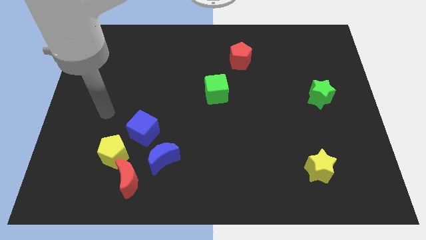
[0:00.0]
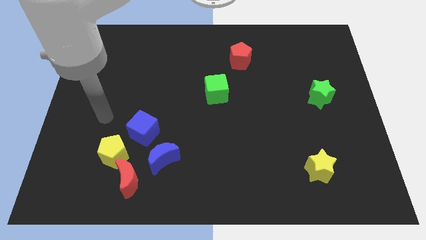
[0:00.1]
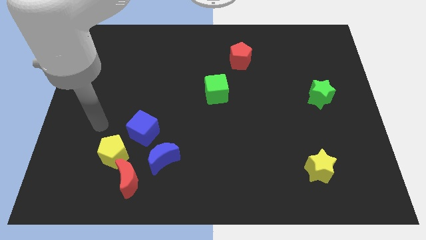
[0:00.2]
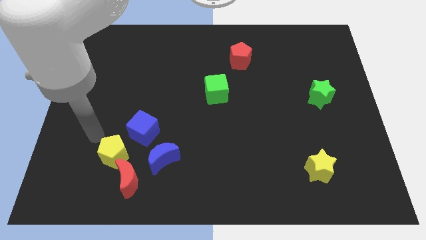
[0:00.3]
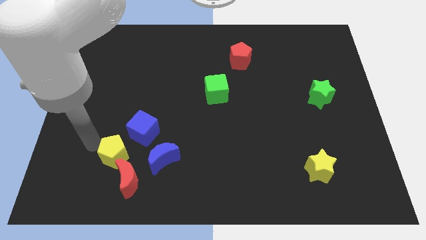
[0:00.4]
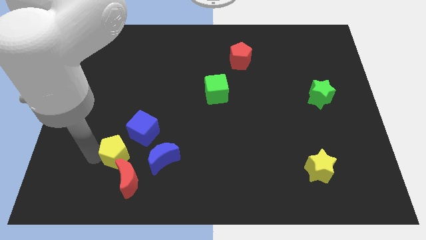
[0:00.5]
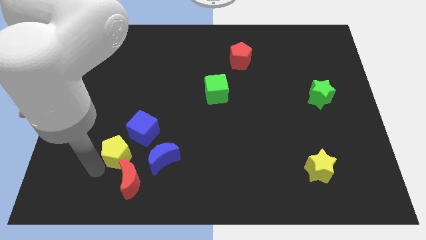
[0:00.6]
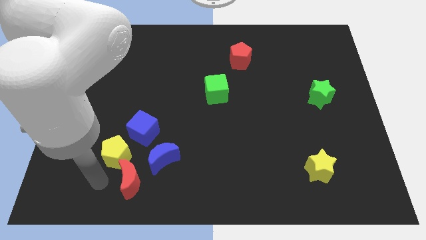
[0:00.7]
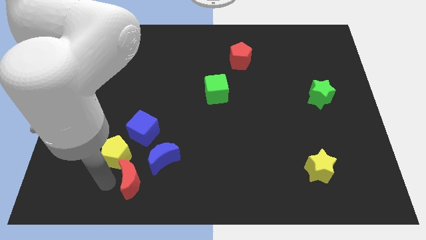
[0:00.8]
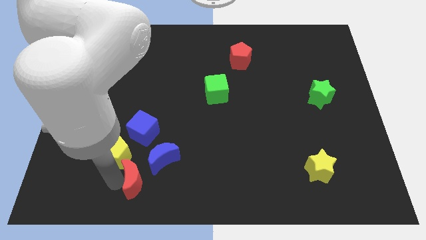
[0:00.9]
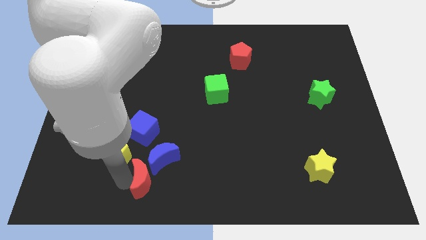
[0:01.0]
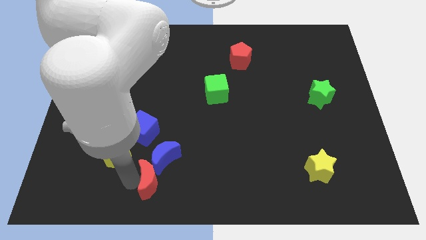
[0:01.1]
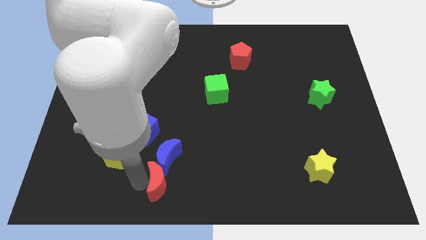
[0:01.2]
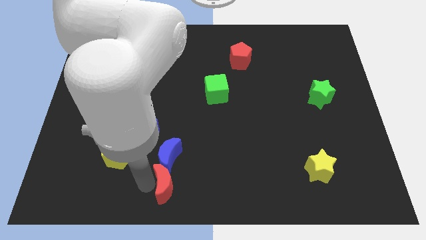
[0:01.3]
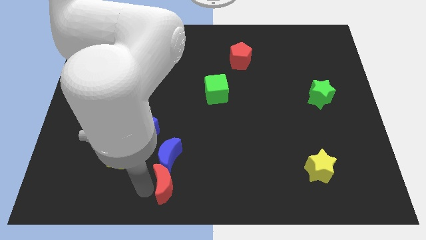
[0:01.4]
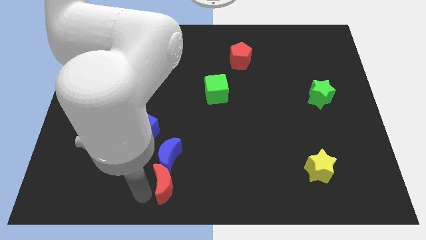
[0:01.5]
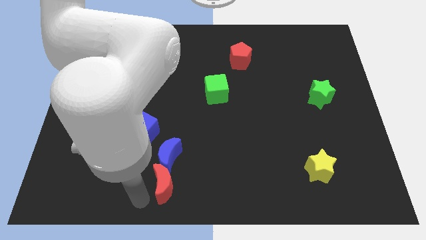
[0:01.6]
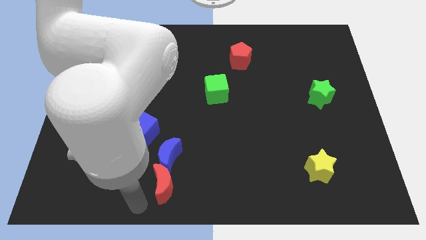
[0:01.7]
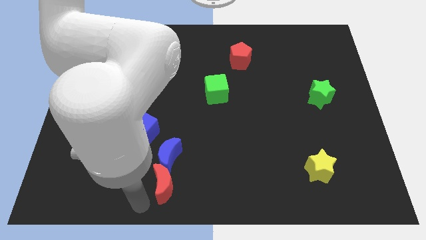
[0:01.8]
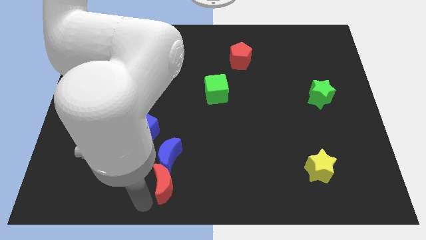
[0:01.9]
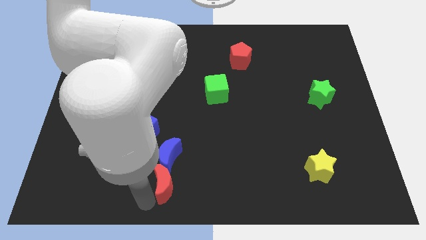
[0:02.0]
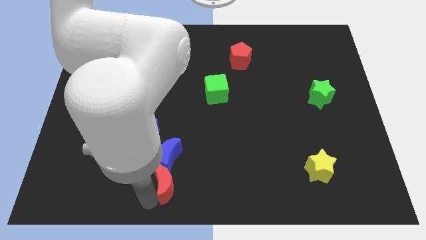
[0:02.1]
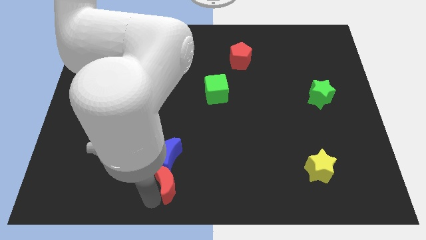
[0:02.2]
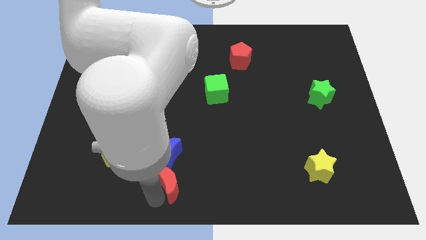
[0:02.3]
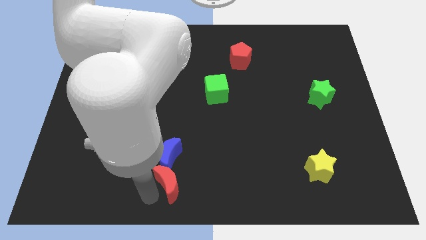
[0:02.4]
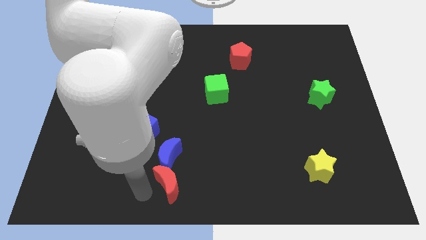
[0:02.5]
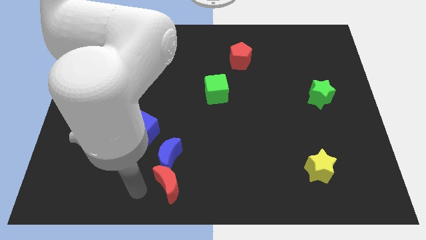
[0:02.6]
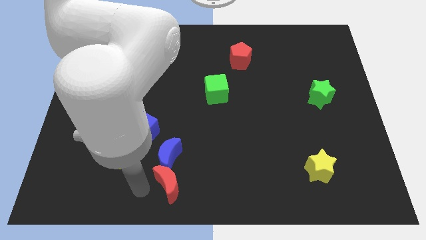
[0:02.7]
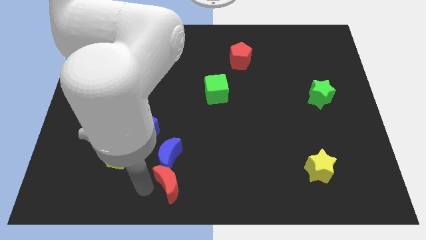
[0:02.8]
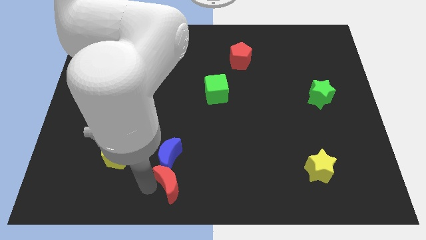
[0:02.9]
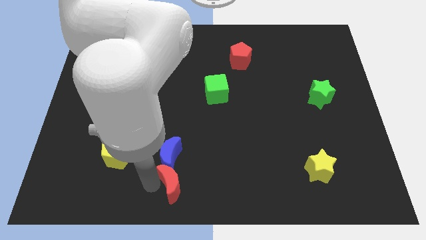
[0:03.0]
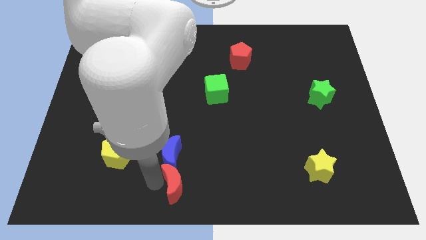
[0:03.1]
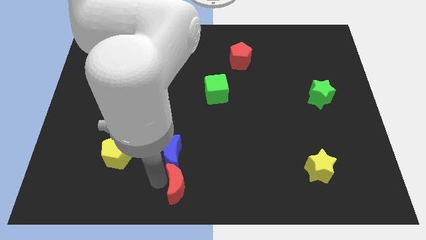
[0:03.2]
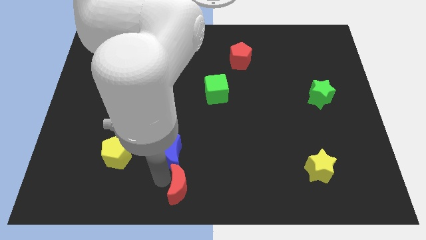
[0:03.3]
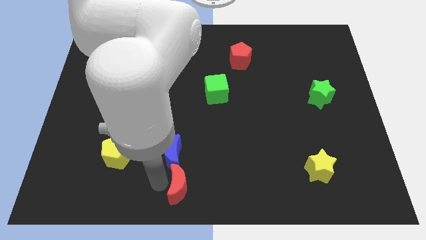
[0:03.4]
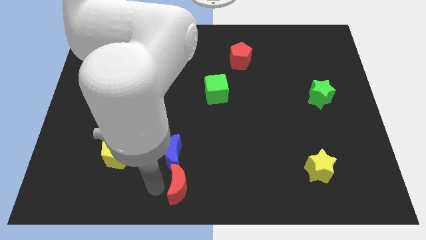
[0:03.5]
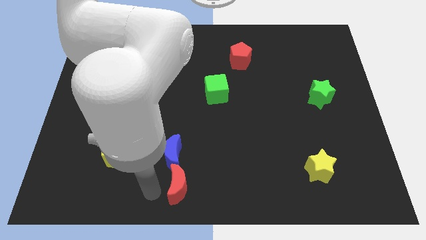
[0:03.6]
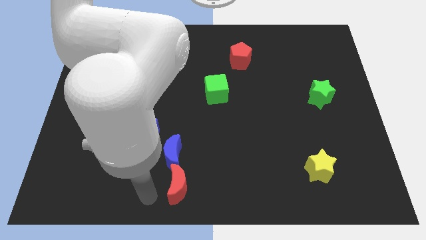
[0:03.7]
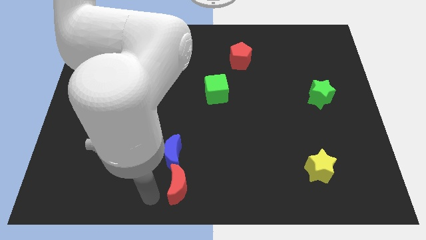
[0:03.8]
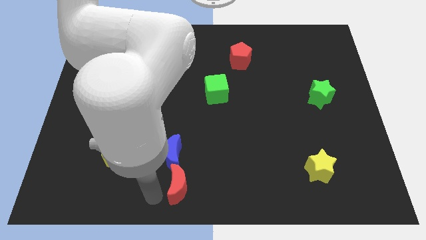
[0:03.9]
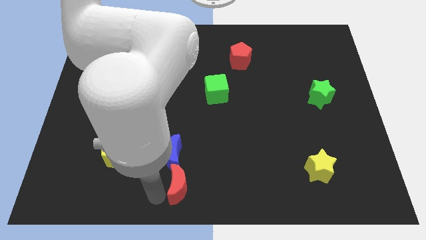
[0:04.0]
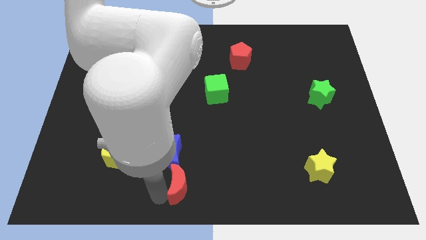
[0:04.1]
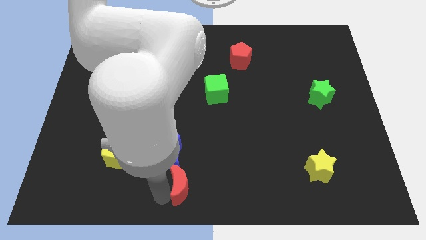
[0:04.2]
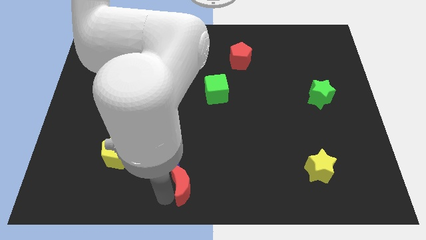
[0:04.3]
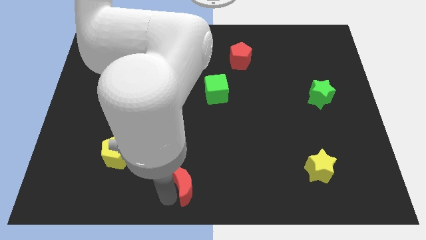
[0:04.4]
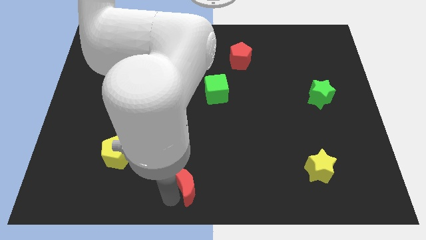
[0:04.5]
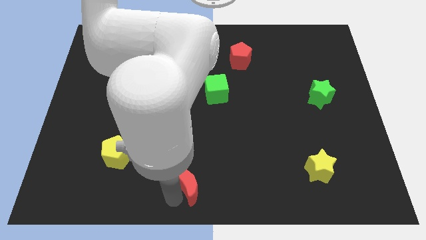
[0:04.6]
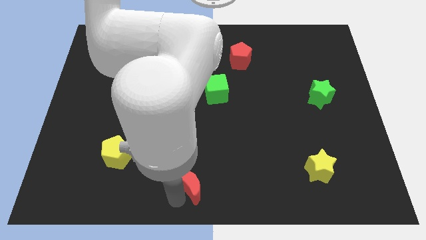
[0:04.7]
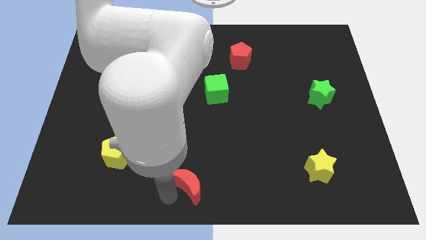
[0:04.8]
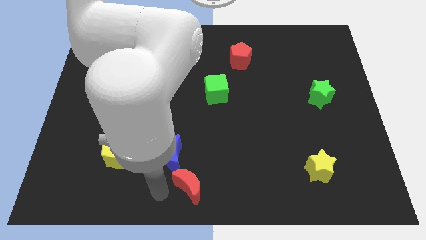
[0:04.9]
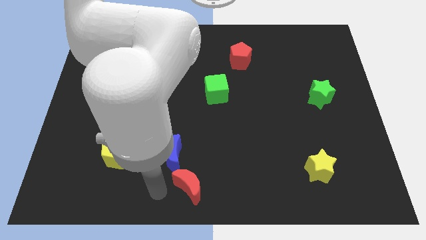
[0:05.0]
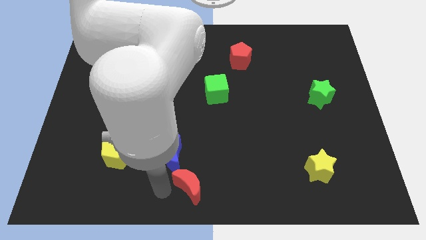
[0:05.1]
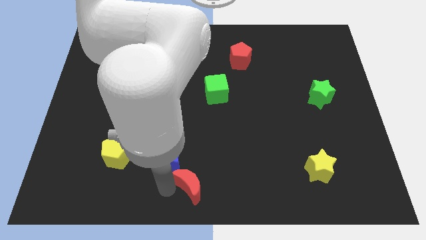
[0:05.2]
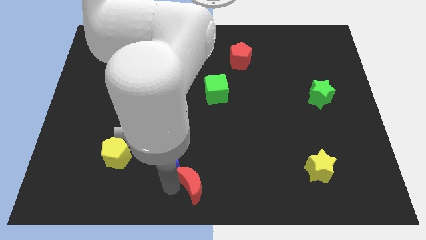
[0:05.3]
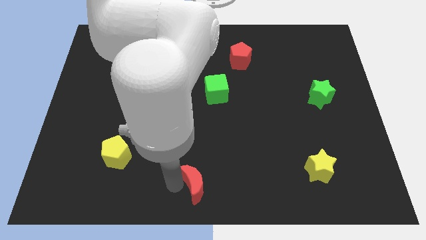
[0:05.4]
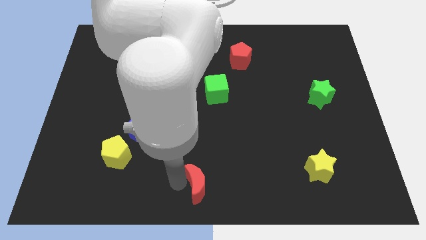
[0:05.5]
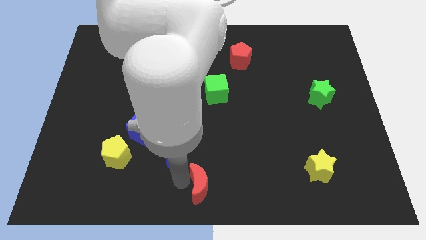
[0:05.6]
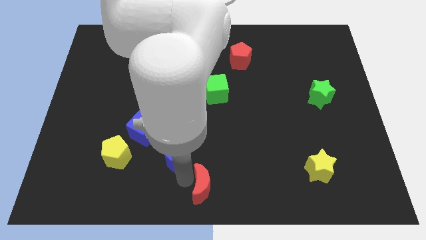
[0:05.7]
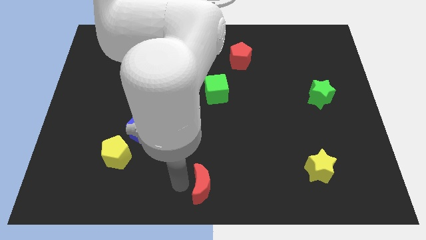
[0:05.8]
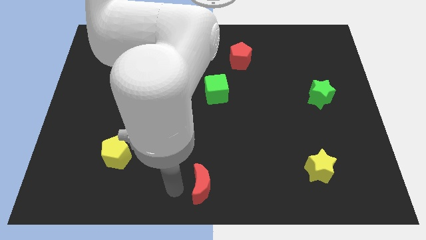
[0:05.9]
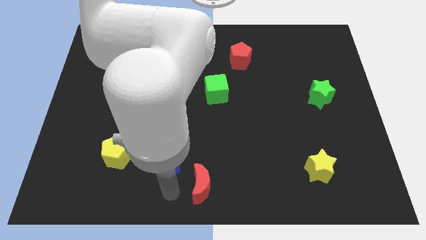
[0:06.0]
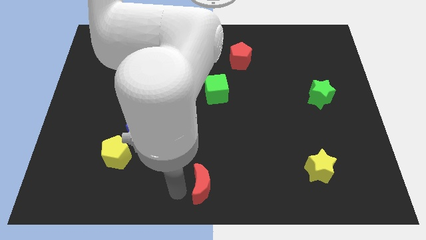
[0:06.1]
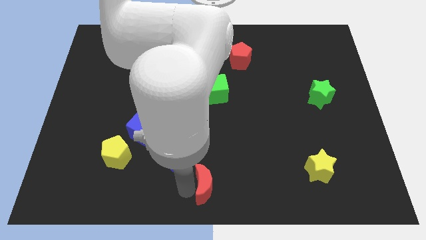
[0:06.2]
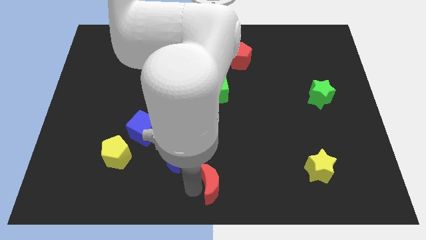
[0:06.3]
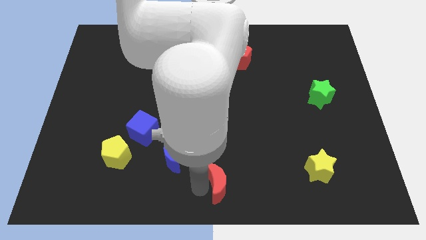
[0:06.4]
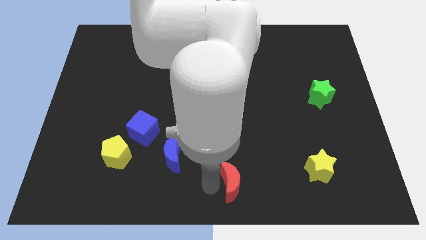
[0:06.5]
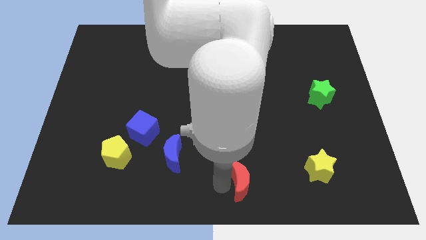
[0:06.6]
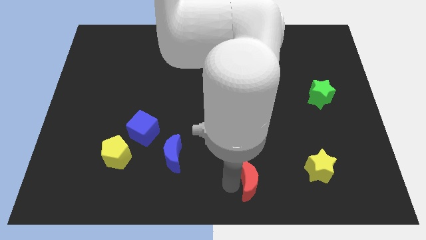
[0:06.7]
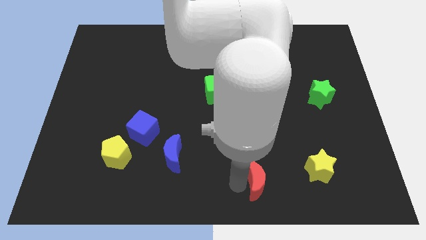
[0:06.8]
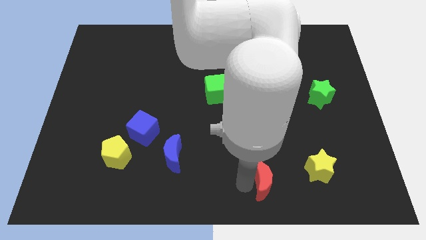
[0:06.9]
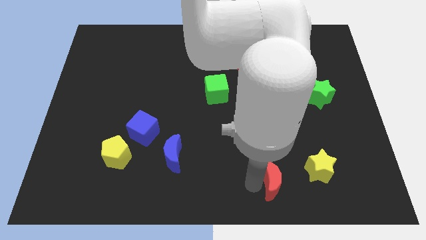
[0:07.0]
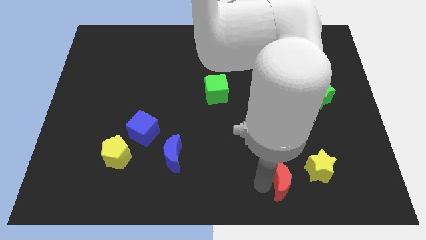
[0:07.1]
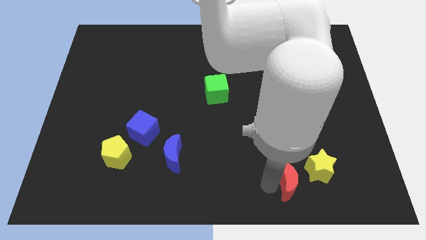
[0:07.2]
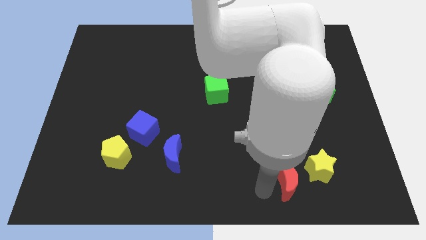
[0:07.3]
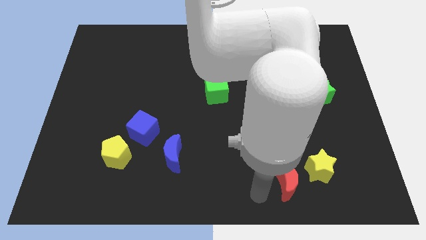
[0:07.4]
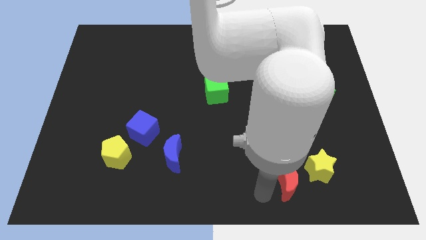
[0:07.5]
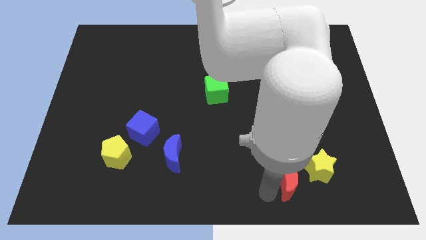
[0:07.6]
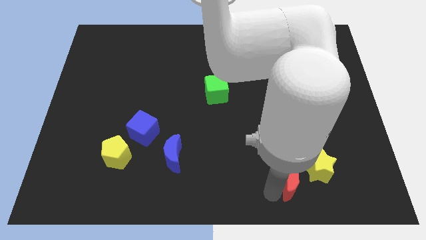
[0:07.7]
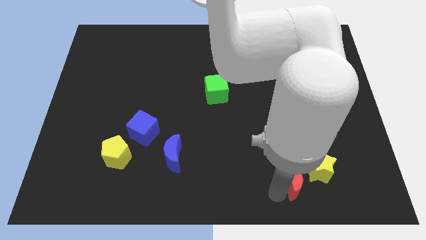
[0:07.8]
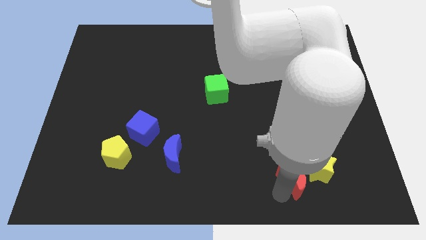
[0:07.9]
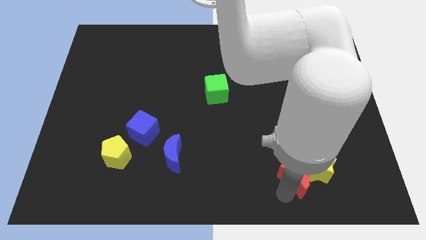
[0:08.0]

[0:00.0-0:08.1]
move the red moon towards the yellow star

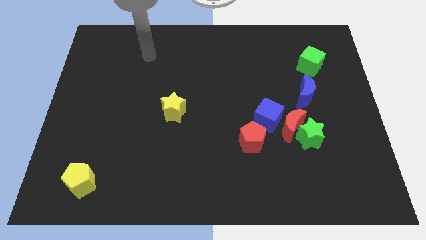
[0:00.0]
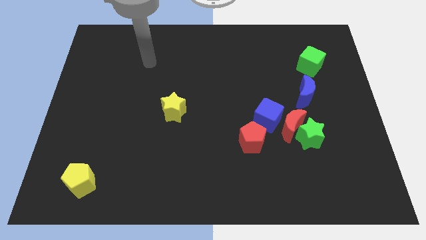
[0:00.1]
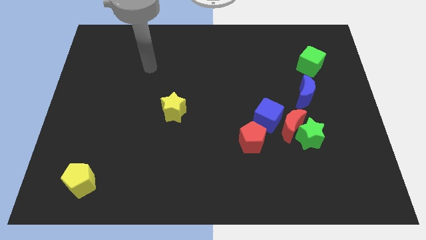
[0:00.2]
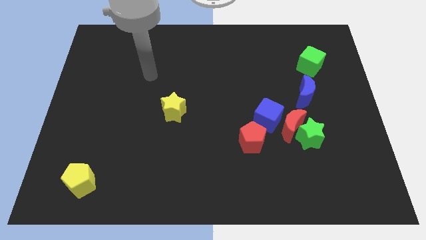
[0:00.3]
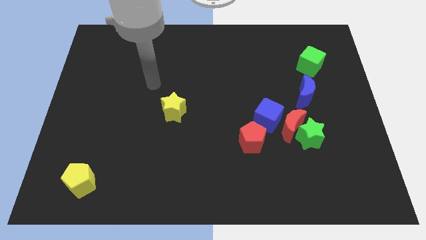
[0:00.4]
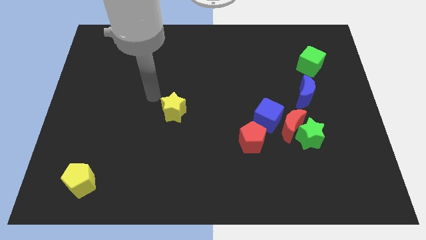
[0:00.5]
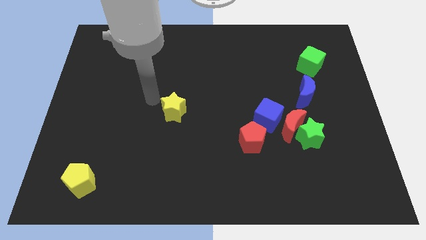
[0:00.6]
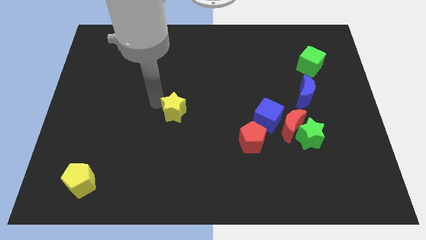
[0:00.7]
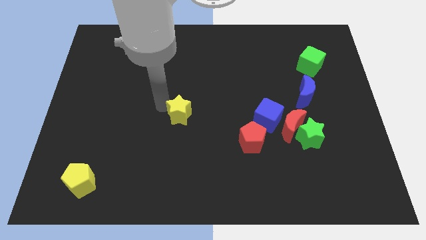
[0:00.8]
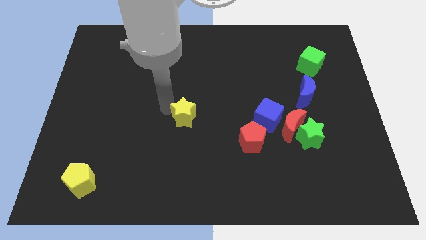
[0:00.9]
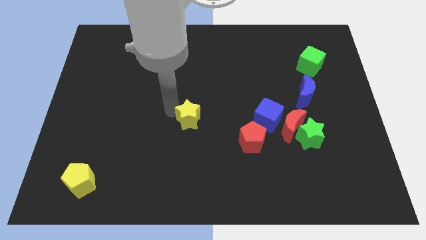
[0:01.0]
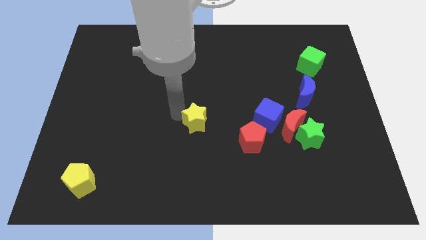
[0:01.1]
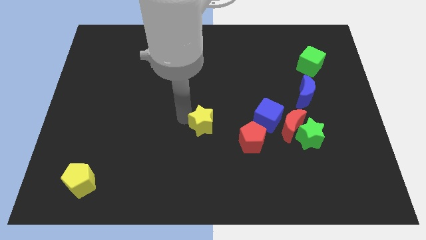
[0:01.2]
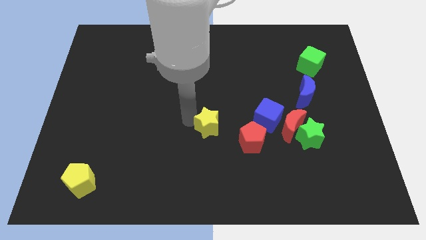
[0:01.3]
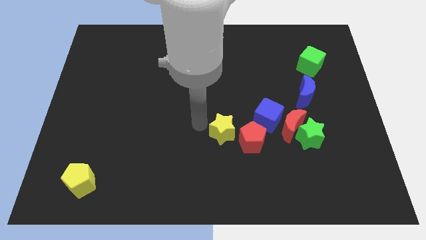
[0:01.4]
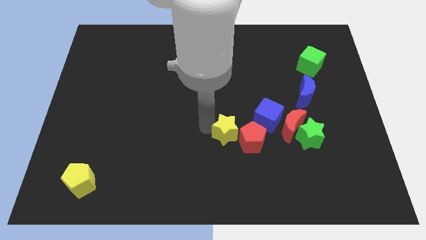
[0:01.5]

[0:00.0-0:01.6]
move the yellow star next to the red pentagon
